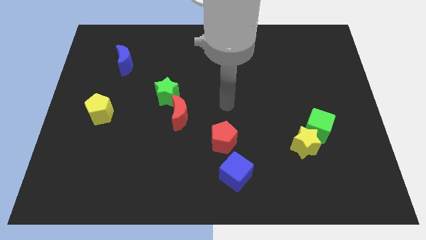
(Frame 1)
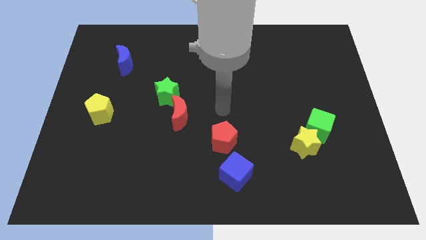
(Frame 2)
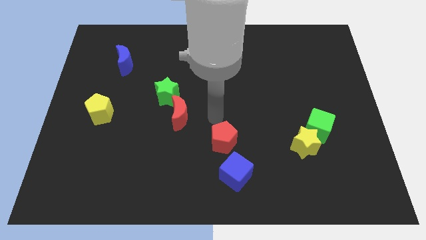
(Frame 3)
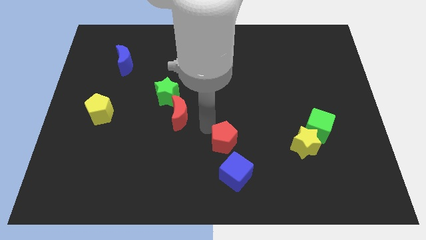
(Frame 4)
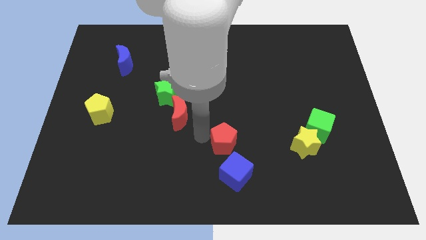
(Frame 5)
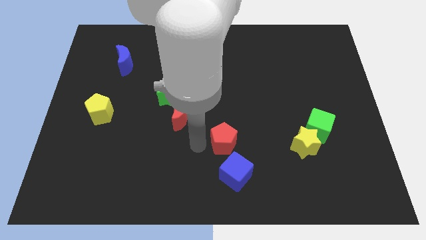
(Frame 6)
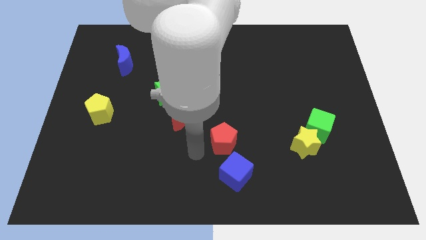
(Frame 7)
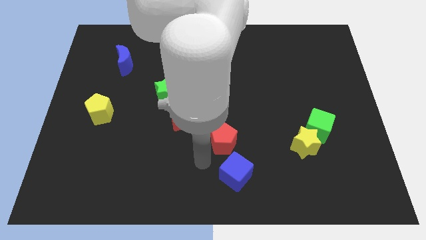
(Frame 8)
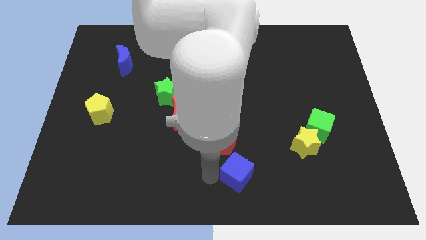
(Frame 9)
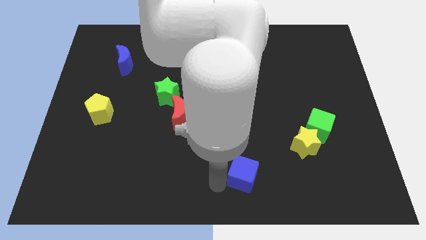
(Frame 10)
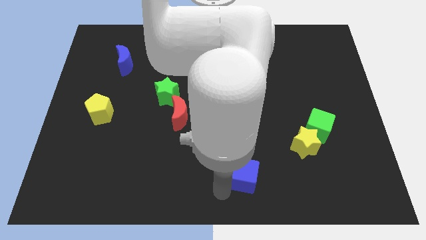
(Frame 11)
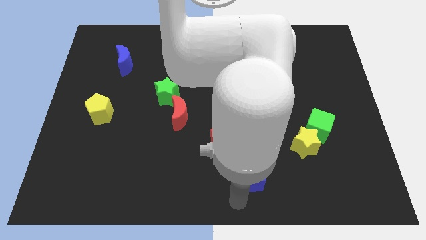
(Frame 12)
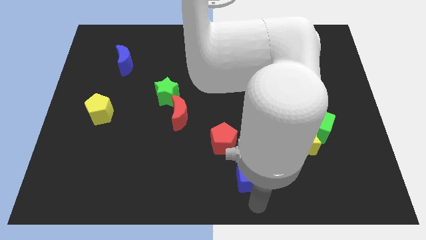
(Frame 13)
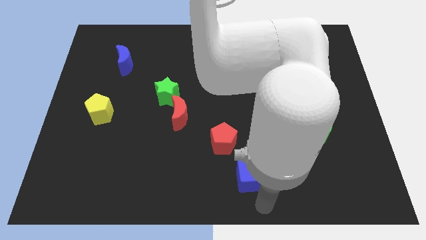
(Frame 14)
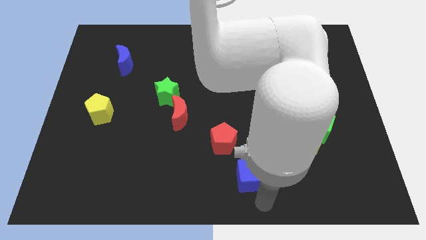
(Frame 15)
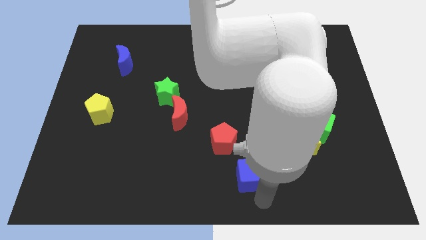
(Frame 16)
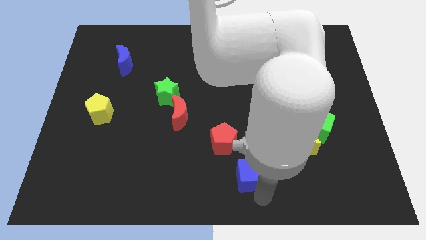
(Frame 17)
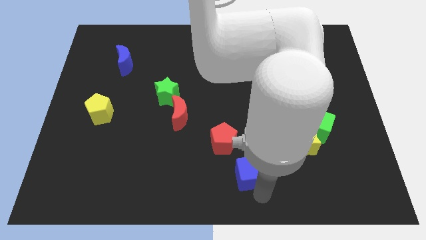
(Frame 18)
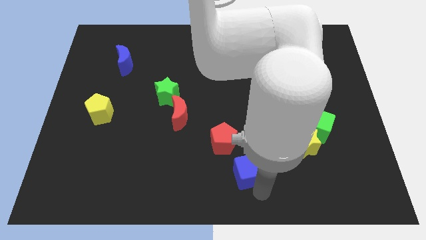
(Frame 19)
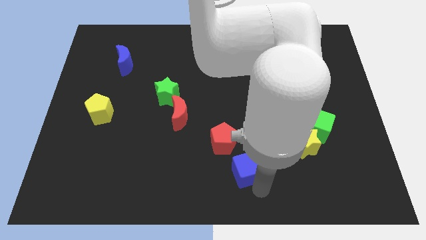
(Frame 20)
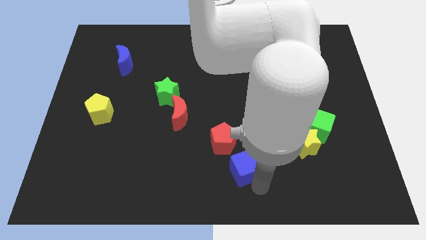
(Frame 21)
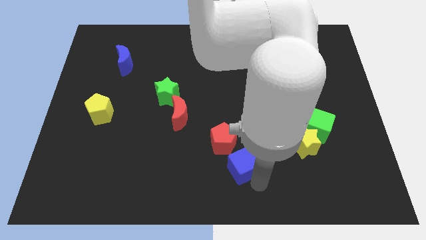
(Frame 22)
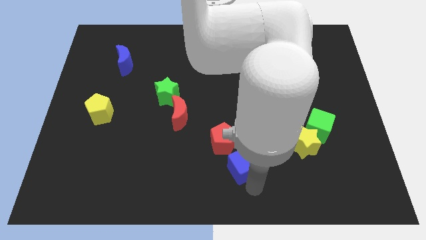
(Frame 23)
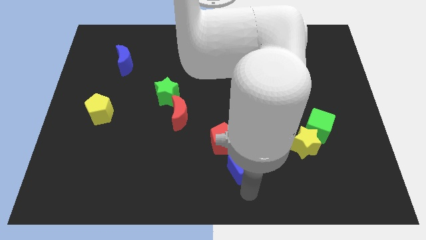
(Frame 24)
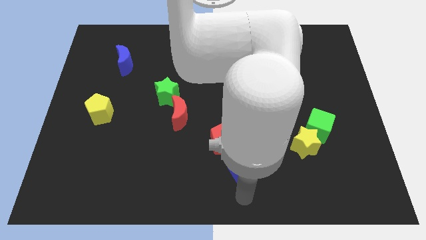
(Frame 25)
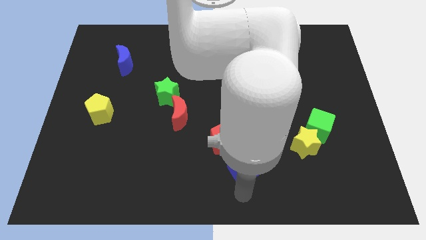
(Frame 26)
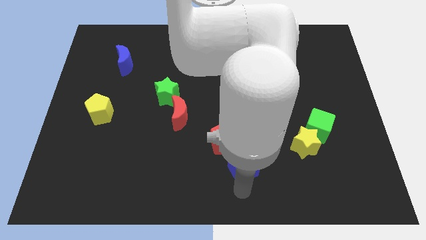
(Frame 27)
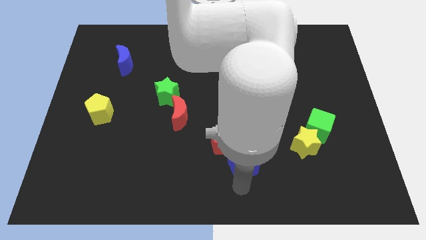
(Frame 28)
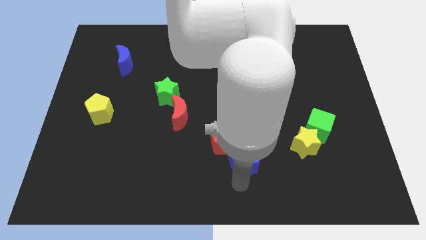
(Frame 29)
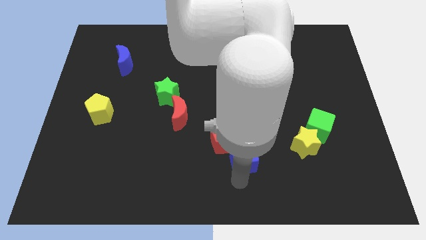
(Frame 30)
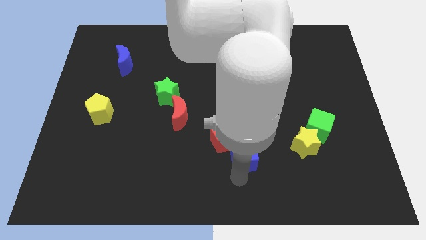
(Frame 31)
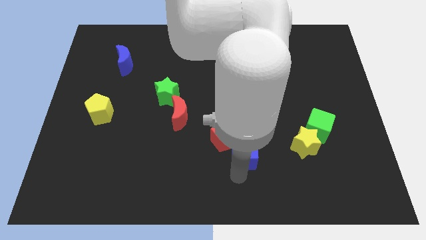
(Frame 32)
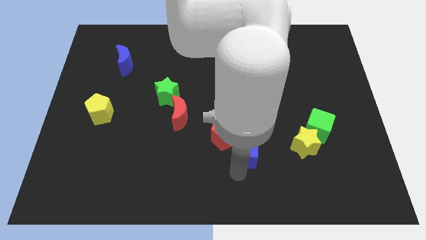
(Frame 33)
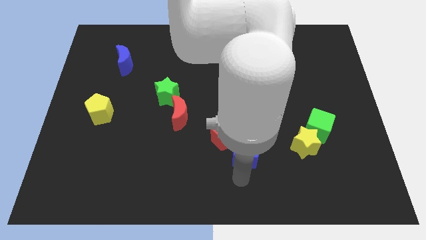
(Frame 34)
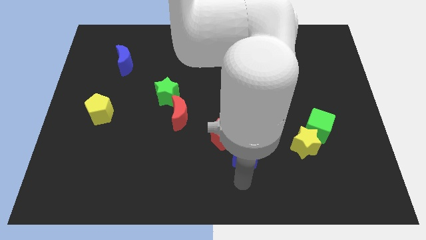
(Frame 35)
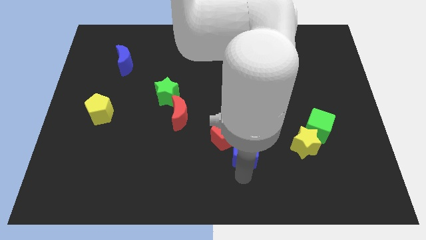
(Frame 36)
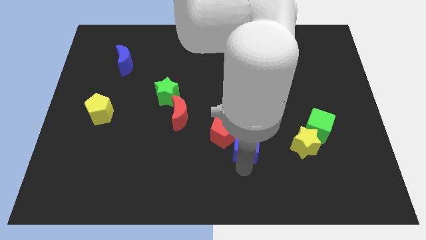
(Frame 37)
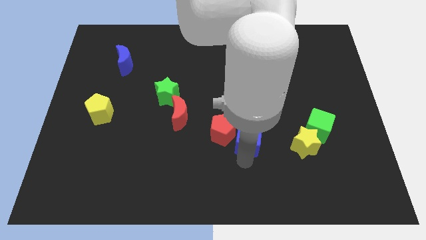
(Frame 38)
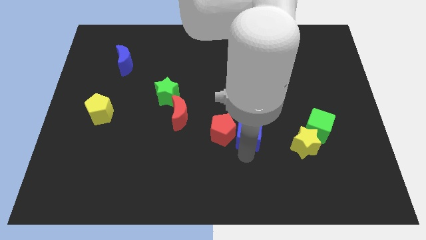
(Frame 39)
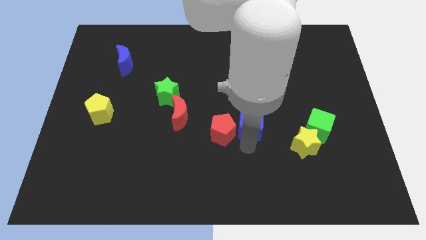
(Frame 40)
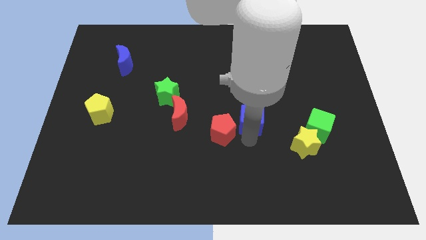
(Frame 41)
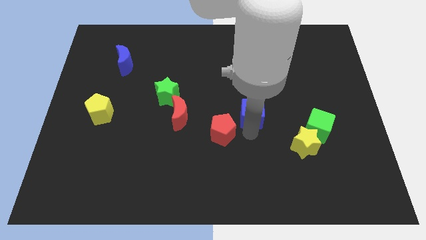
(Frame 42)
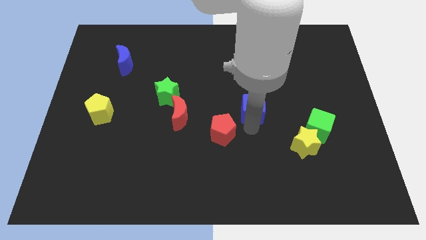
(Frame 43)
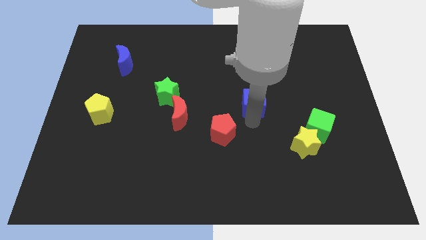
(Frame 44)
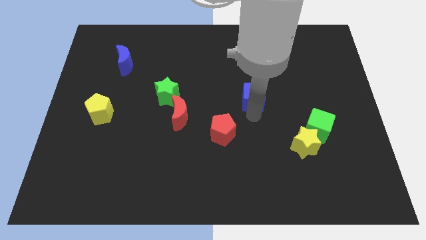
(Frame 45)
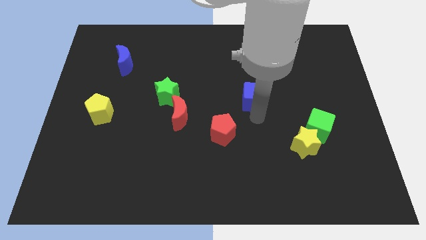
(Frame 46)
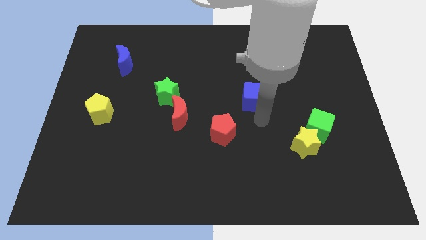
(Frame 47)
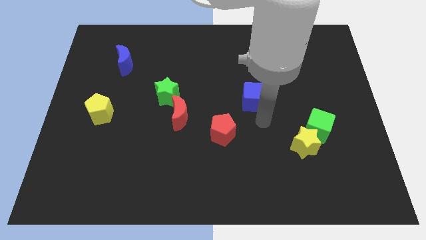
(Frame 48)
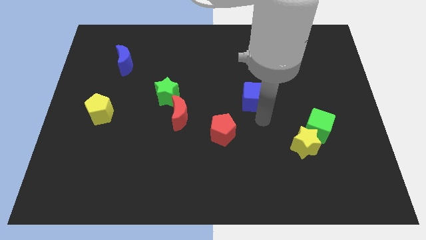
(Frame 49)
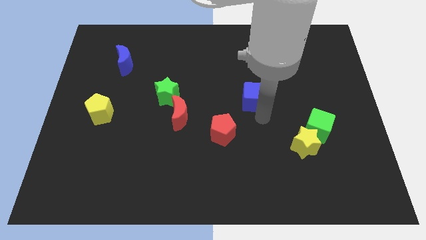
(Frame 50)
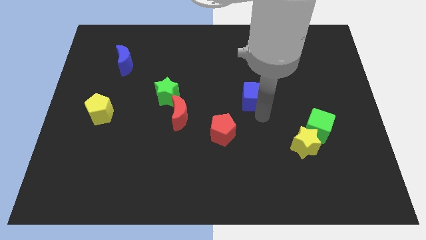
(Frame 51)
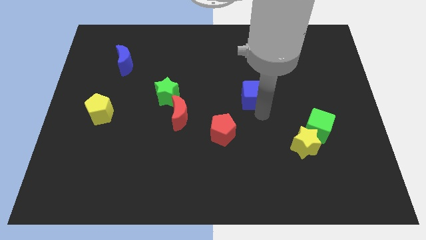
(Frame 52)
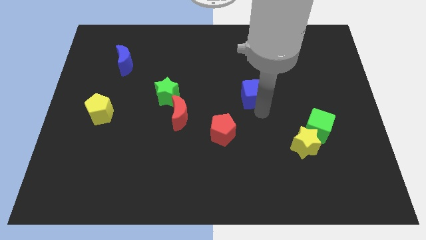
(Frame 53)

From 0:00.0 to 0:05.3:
move the blue cube upwards

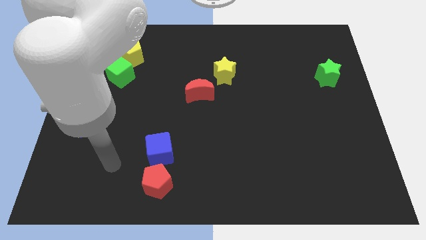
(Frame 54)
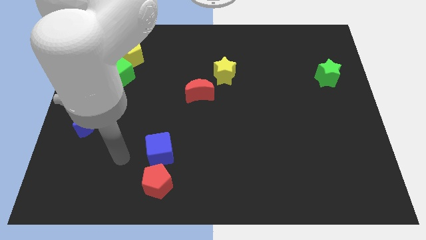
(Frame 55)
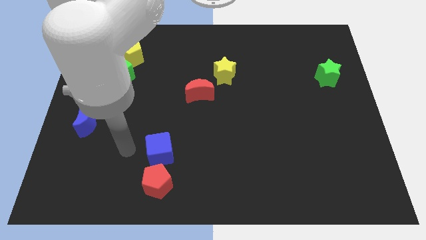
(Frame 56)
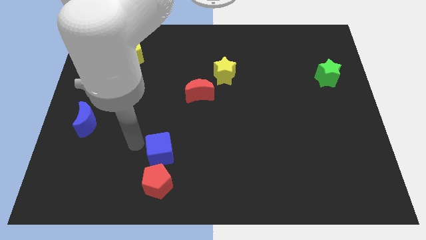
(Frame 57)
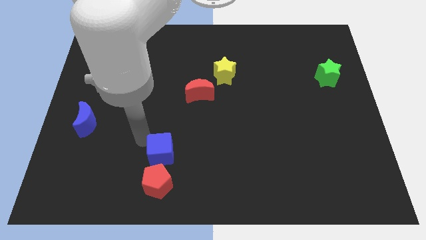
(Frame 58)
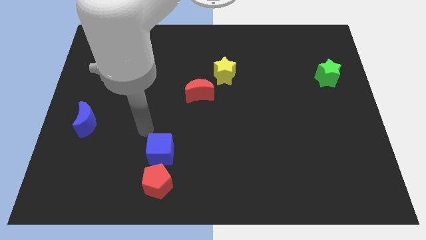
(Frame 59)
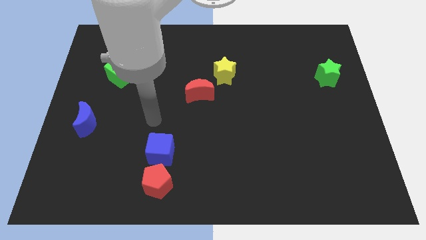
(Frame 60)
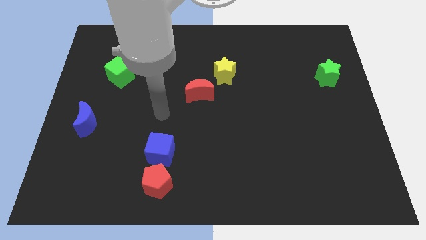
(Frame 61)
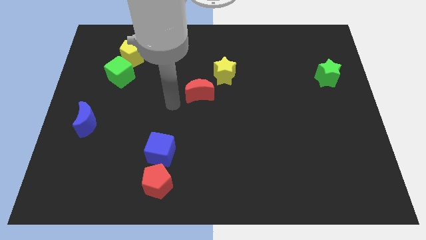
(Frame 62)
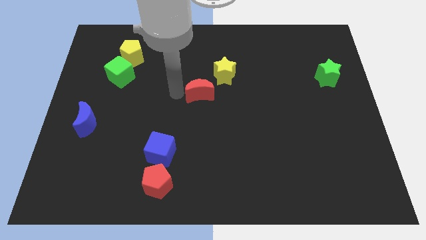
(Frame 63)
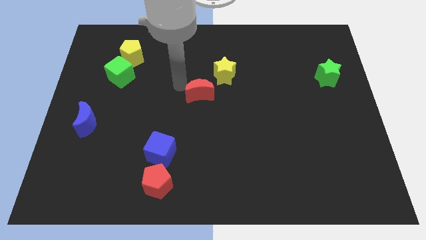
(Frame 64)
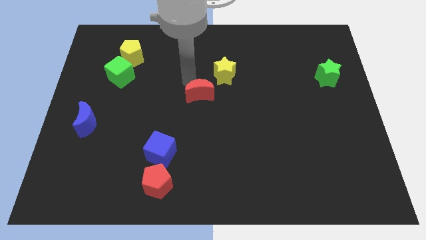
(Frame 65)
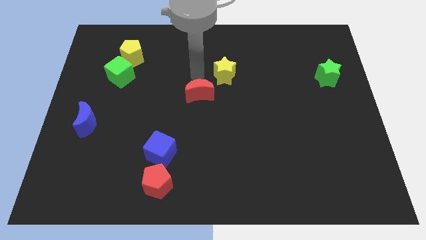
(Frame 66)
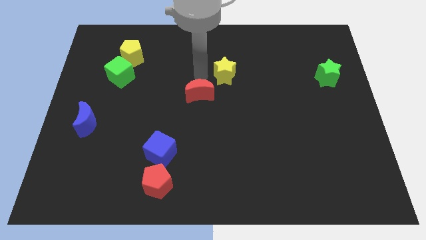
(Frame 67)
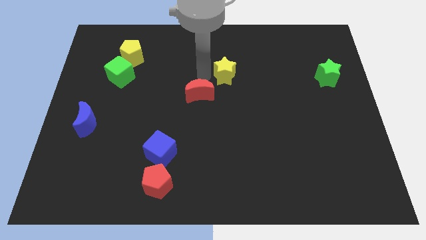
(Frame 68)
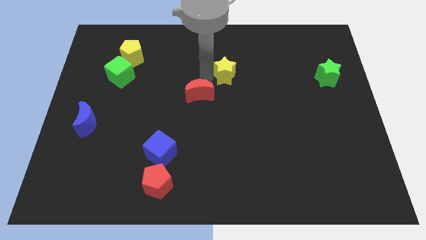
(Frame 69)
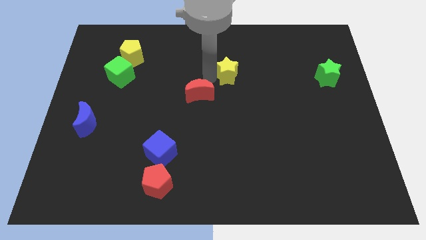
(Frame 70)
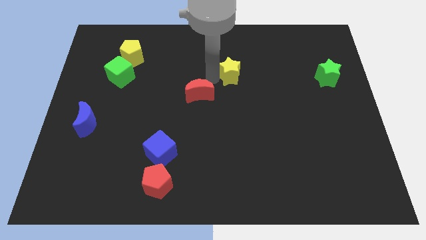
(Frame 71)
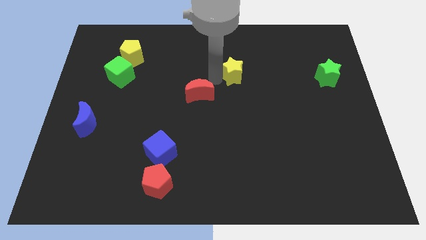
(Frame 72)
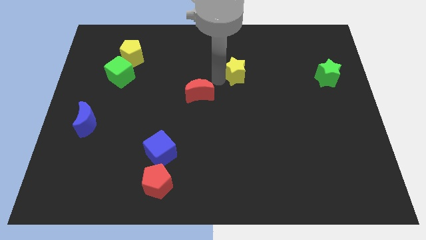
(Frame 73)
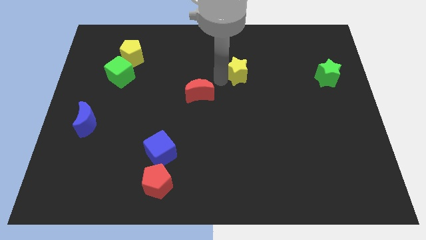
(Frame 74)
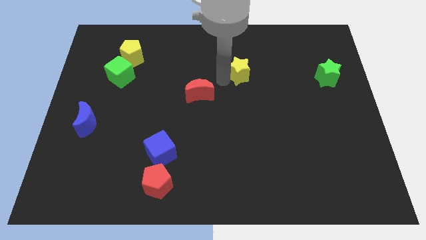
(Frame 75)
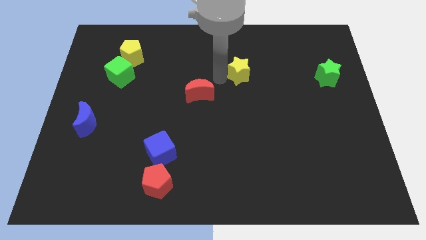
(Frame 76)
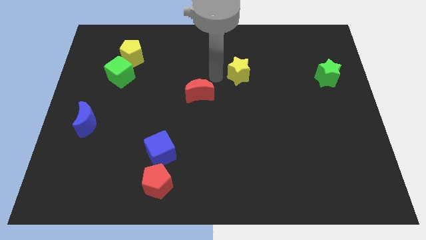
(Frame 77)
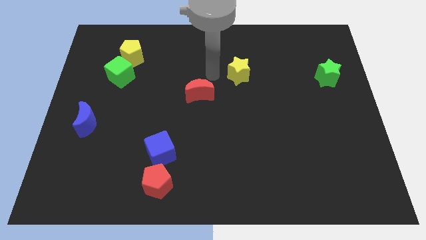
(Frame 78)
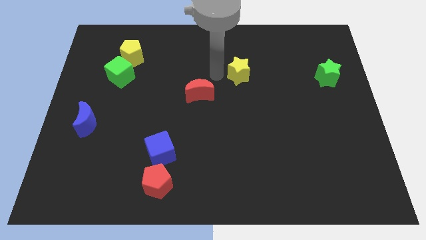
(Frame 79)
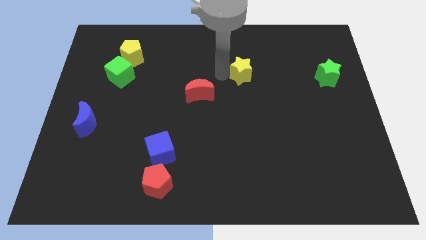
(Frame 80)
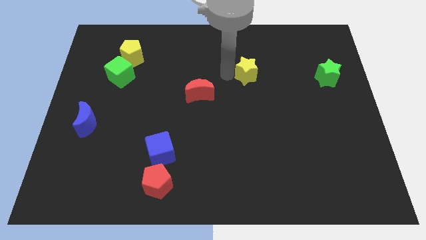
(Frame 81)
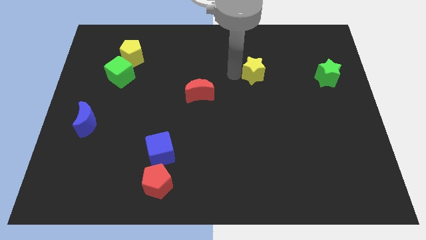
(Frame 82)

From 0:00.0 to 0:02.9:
slightly push the yellow star right

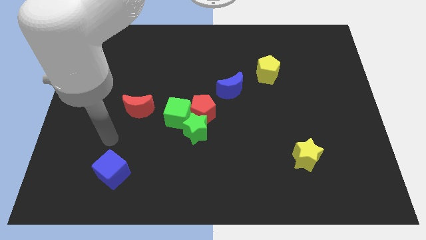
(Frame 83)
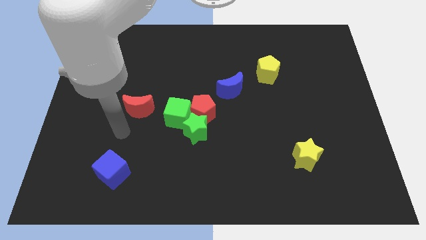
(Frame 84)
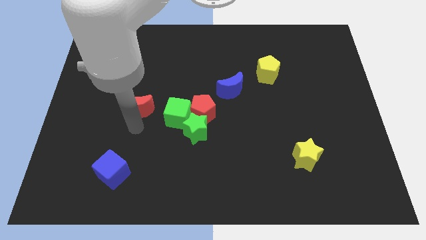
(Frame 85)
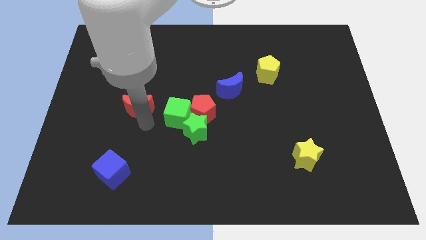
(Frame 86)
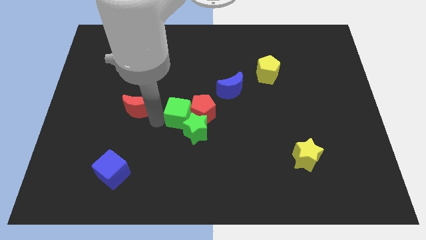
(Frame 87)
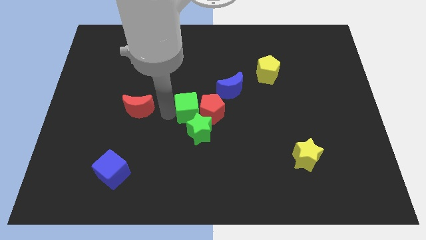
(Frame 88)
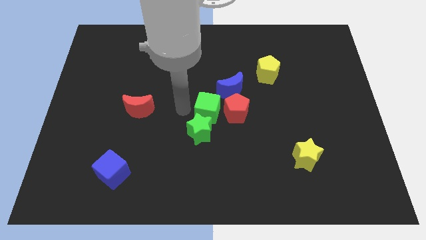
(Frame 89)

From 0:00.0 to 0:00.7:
slightly push the red pentagon right
